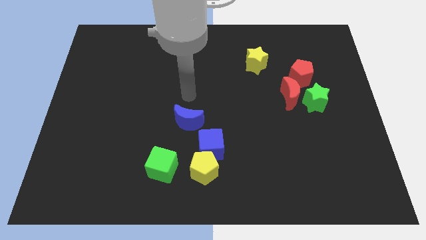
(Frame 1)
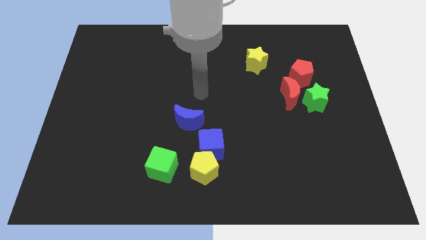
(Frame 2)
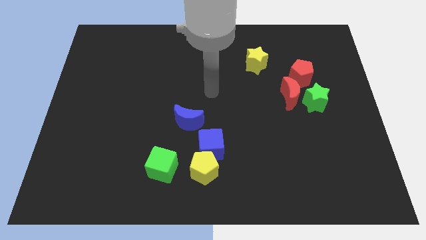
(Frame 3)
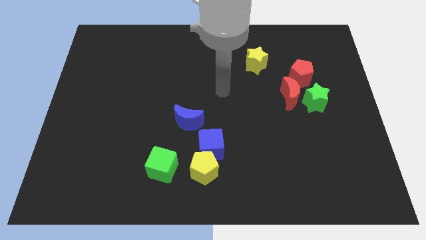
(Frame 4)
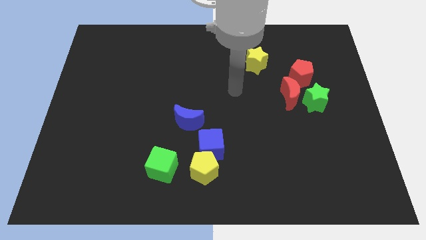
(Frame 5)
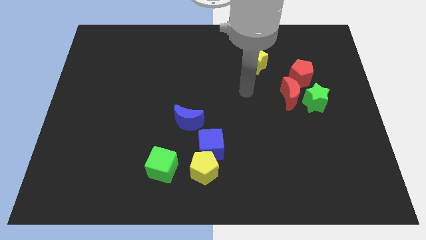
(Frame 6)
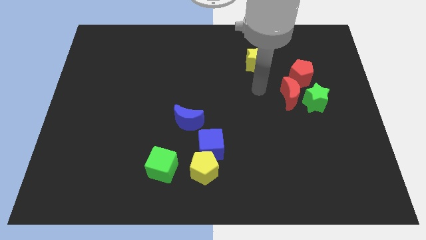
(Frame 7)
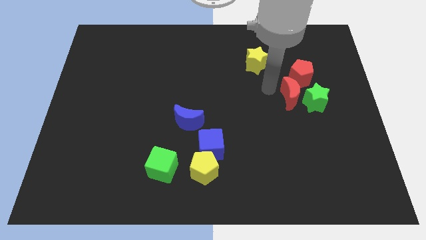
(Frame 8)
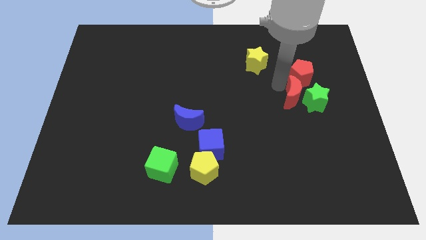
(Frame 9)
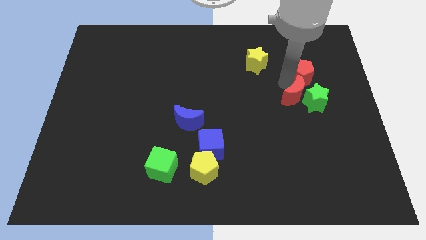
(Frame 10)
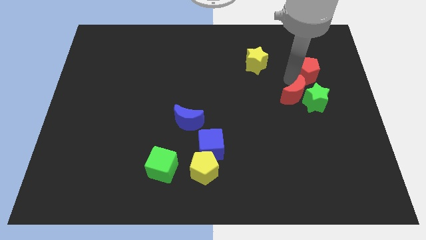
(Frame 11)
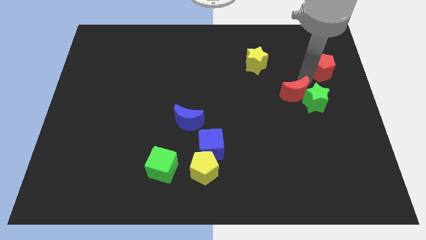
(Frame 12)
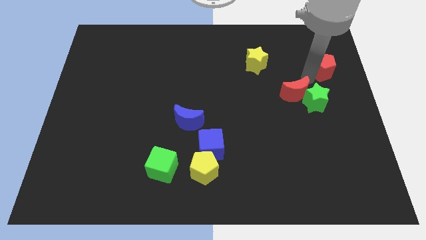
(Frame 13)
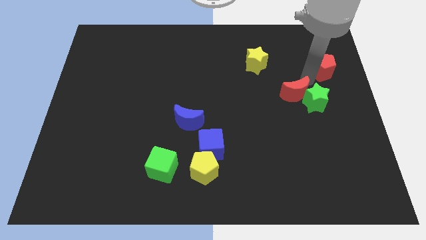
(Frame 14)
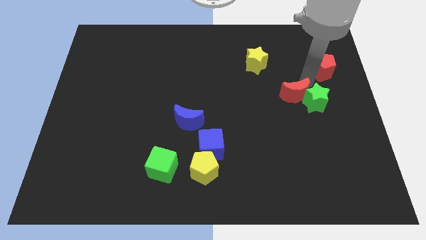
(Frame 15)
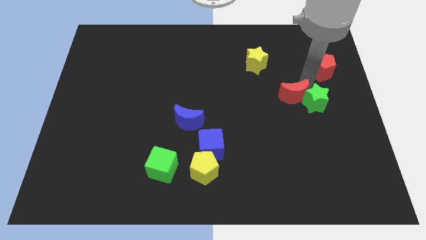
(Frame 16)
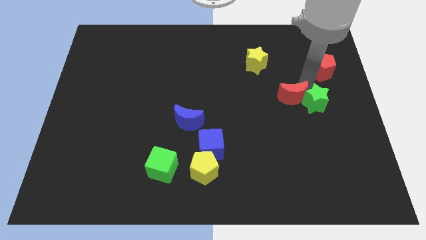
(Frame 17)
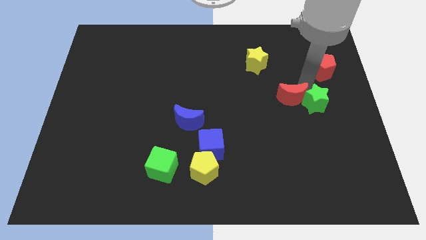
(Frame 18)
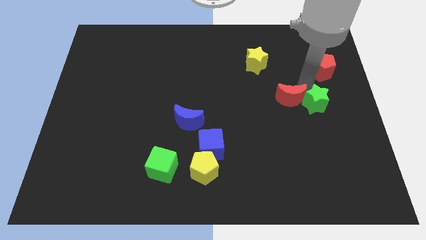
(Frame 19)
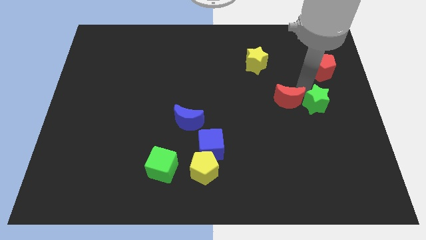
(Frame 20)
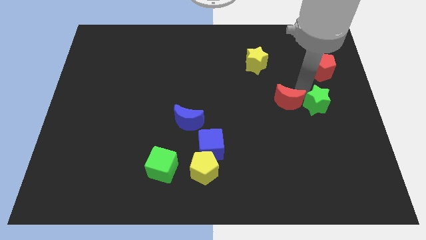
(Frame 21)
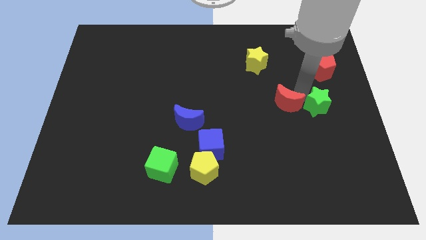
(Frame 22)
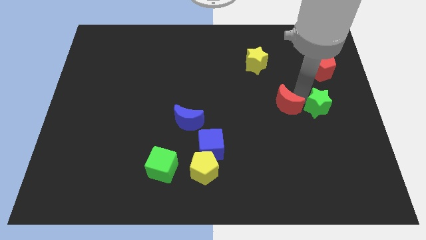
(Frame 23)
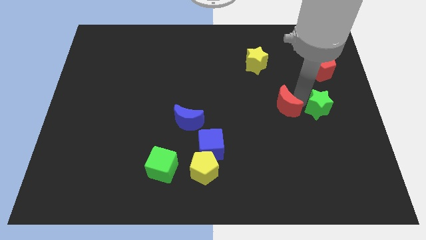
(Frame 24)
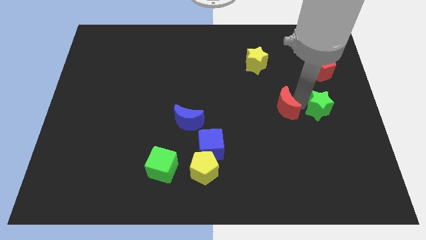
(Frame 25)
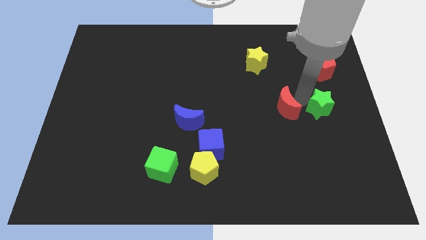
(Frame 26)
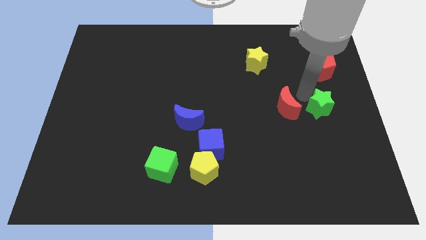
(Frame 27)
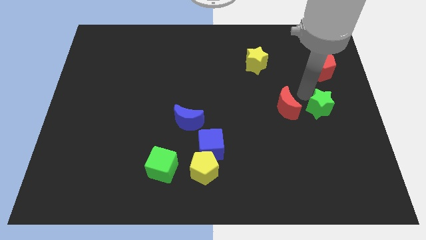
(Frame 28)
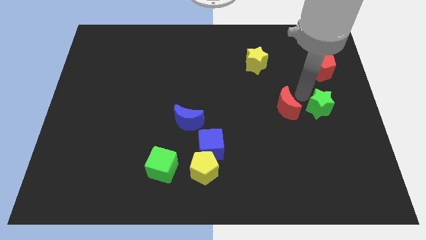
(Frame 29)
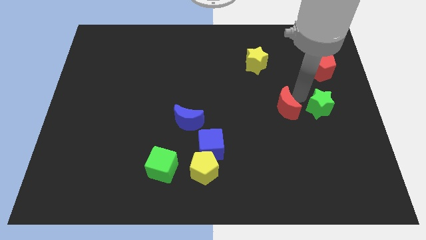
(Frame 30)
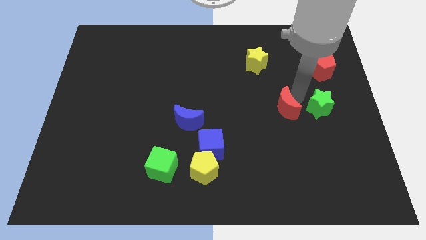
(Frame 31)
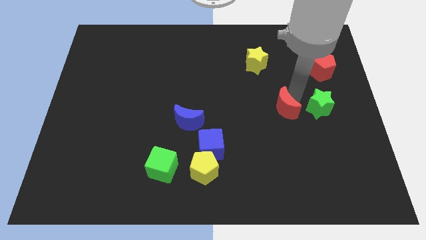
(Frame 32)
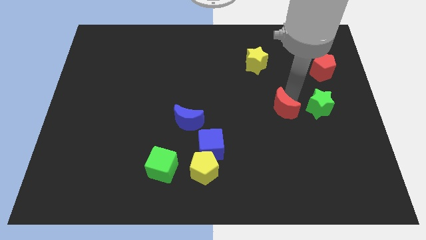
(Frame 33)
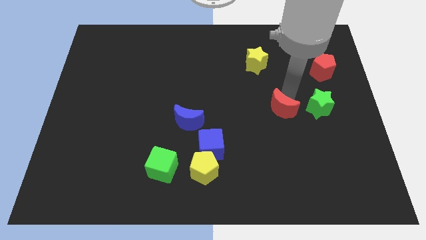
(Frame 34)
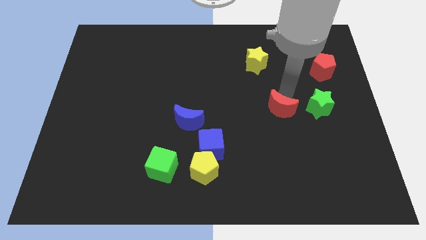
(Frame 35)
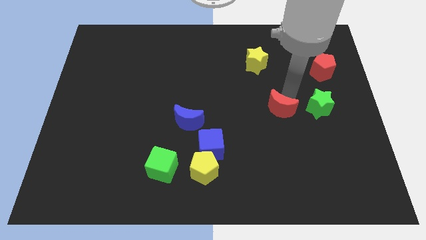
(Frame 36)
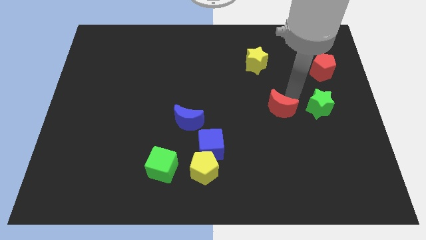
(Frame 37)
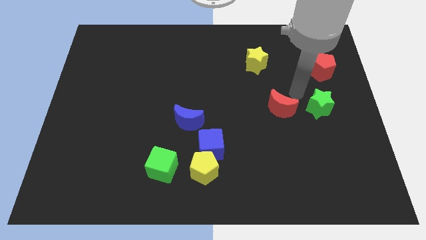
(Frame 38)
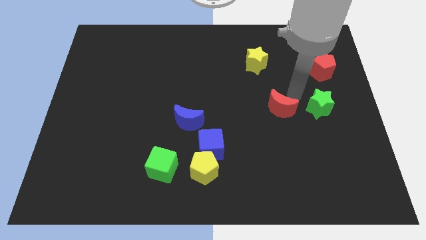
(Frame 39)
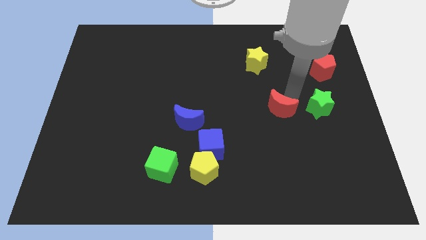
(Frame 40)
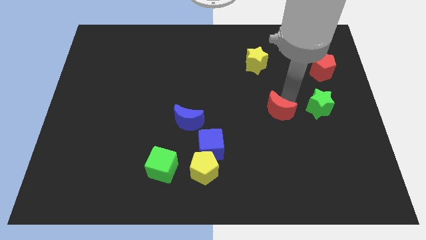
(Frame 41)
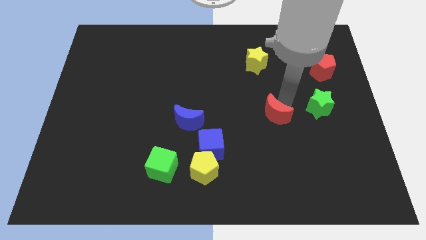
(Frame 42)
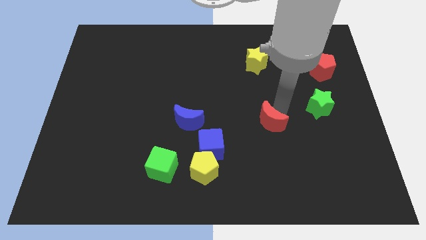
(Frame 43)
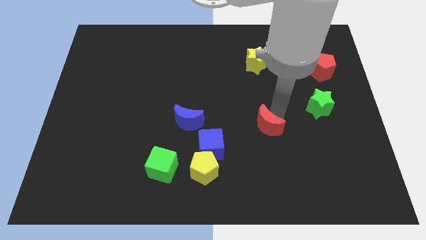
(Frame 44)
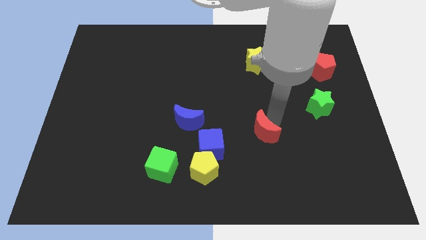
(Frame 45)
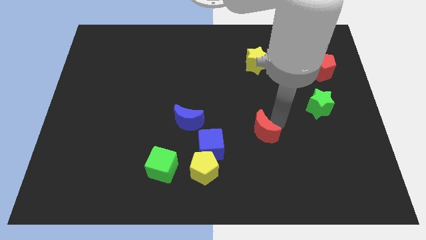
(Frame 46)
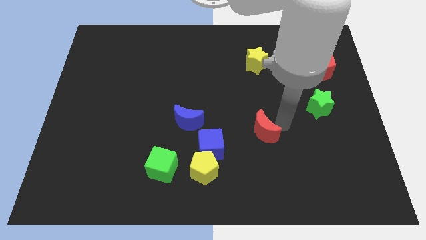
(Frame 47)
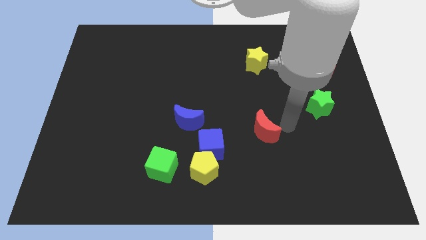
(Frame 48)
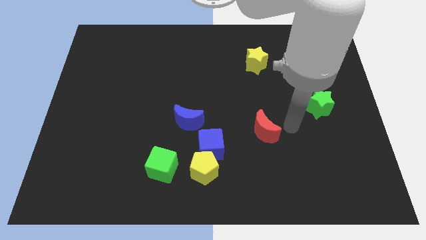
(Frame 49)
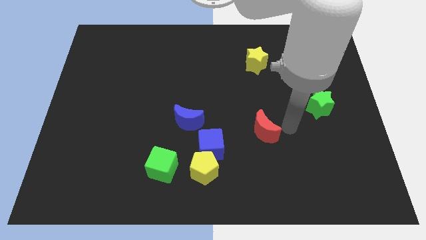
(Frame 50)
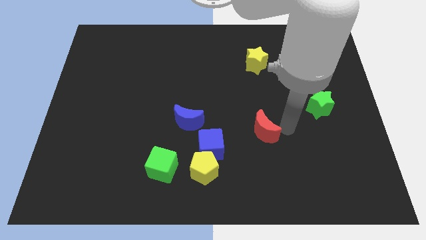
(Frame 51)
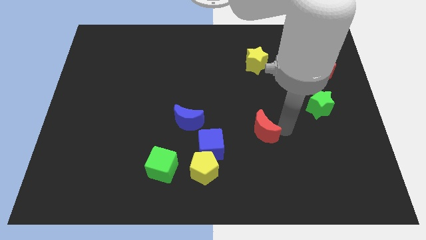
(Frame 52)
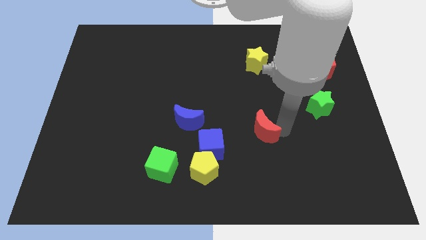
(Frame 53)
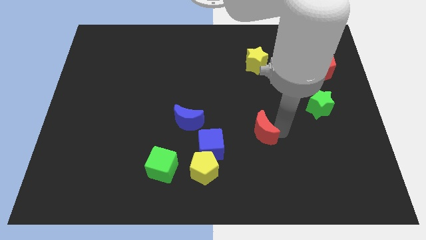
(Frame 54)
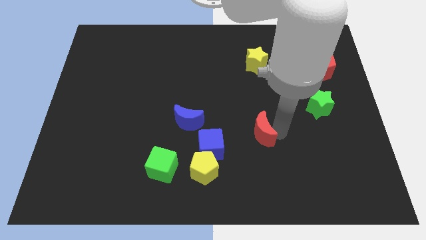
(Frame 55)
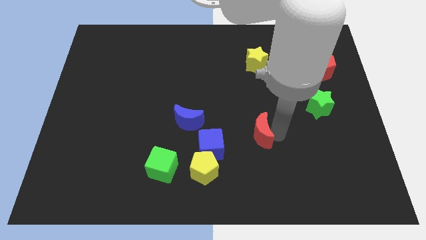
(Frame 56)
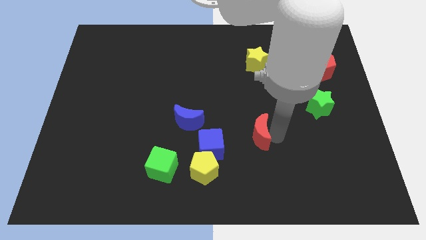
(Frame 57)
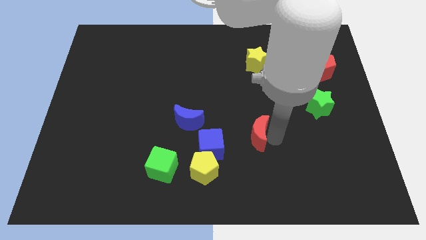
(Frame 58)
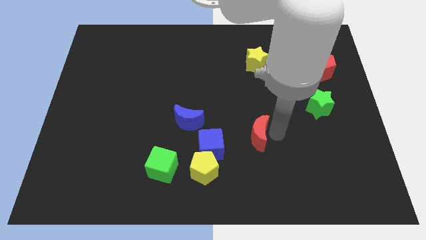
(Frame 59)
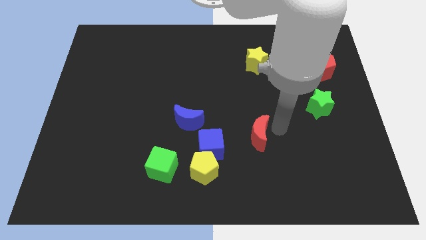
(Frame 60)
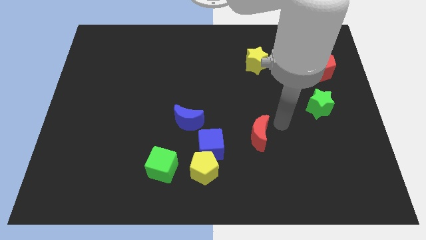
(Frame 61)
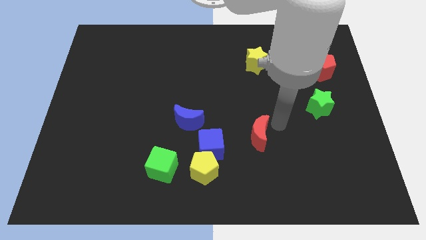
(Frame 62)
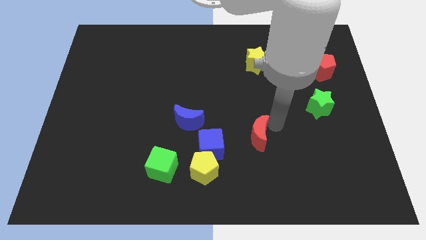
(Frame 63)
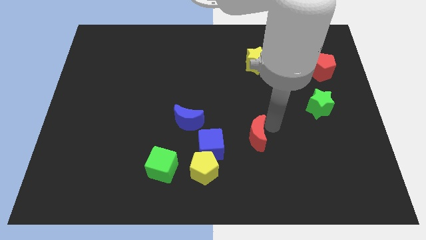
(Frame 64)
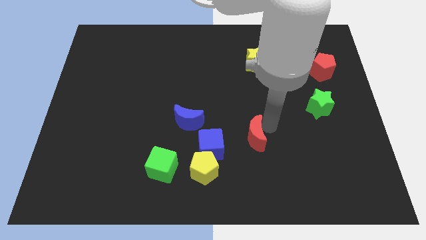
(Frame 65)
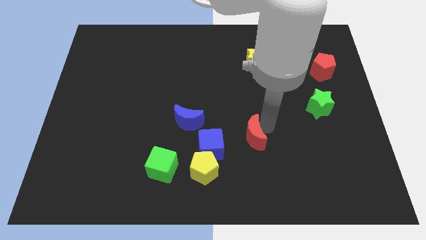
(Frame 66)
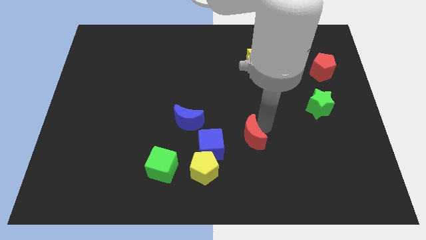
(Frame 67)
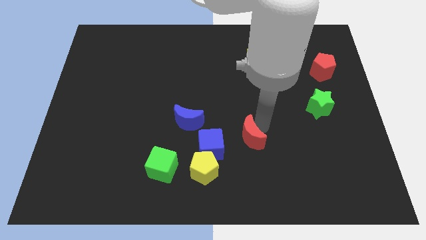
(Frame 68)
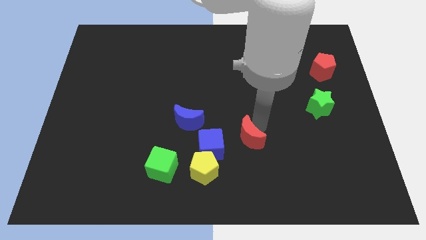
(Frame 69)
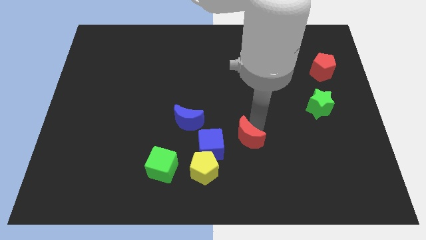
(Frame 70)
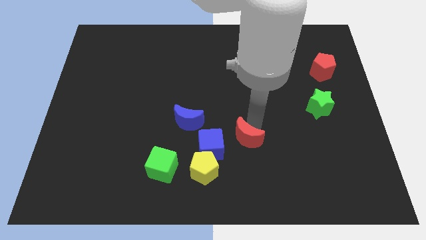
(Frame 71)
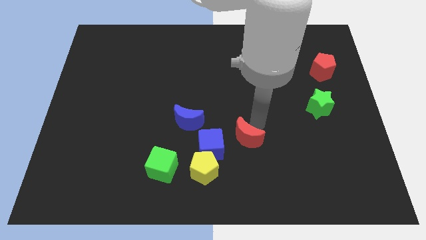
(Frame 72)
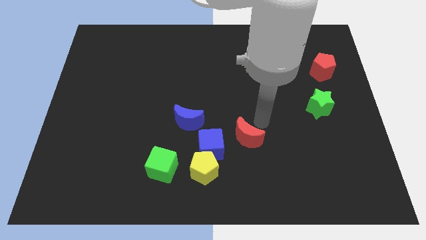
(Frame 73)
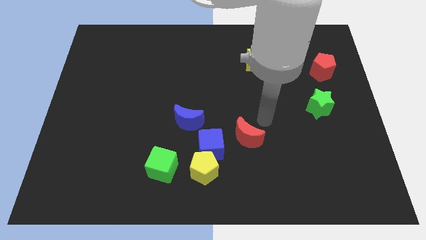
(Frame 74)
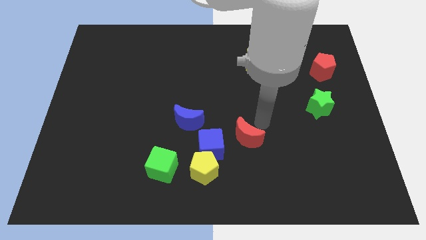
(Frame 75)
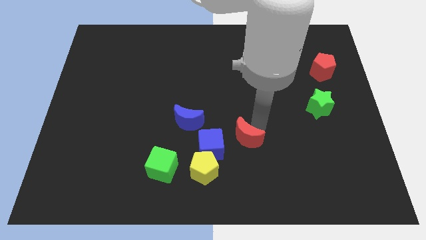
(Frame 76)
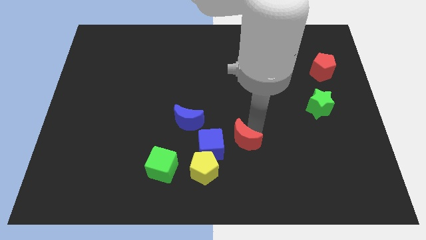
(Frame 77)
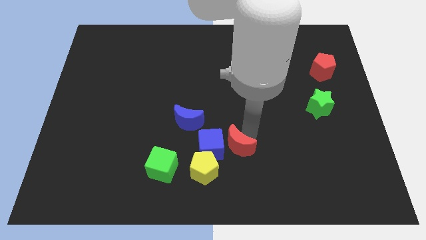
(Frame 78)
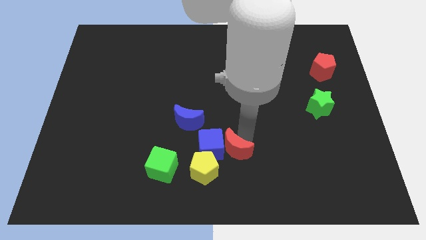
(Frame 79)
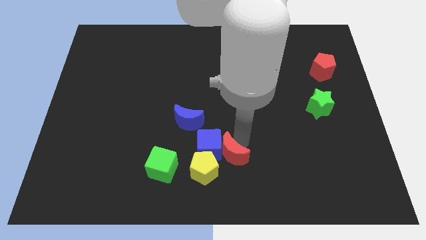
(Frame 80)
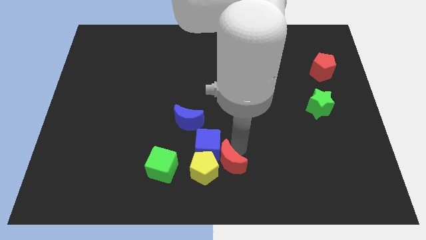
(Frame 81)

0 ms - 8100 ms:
push the red moon close to the yellow pentagon

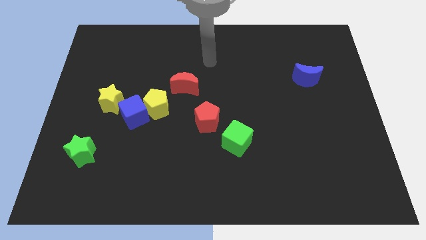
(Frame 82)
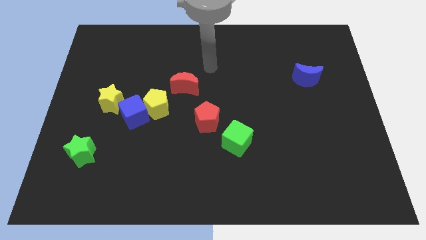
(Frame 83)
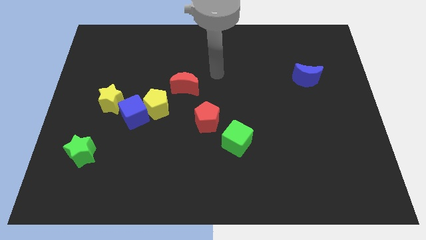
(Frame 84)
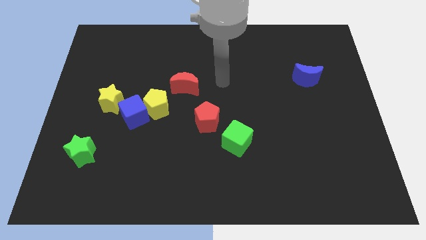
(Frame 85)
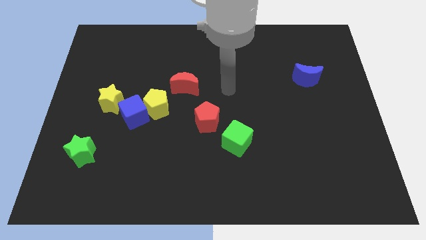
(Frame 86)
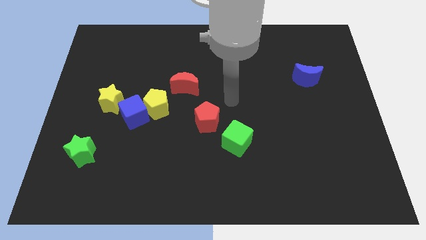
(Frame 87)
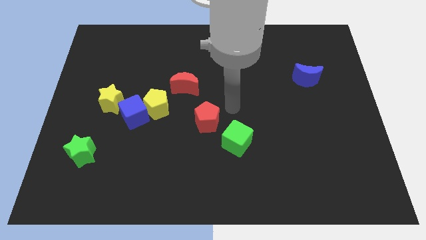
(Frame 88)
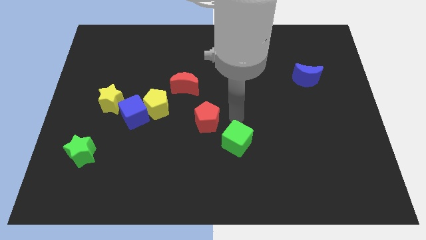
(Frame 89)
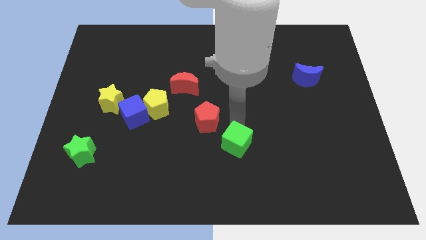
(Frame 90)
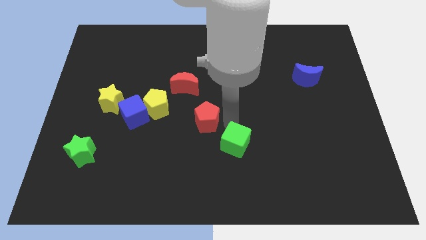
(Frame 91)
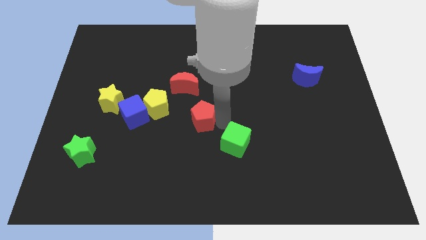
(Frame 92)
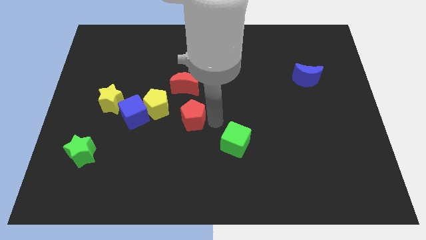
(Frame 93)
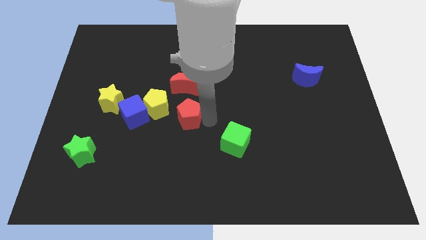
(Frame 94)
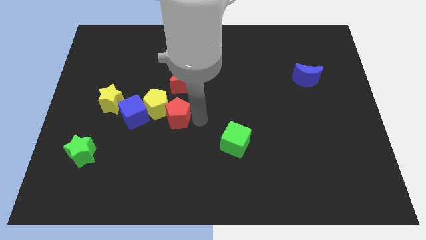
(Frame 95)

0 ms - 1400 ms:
slide the red pentagon close to the yellow pentagon
